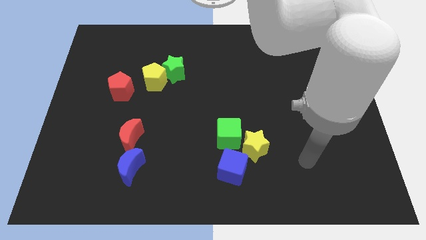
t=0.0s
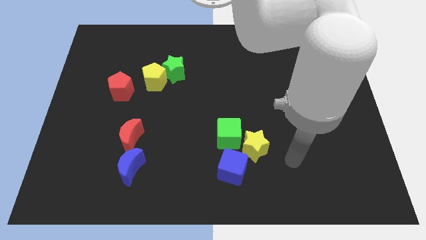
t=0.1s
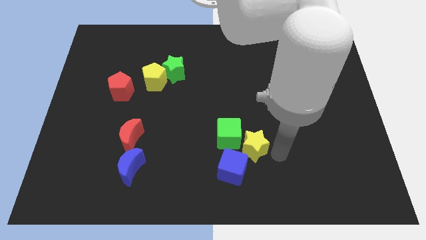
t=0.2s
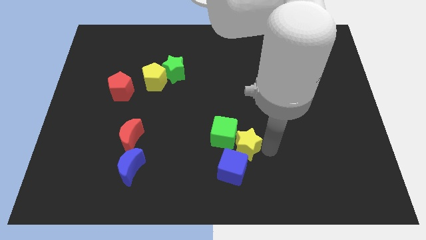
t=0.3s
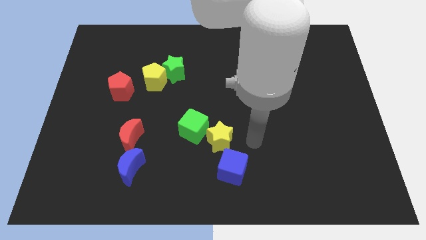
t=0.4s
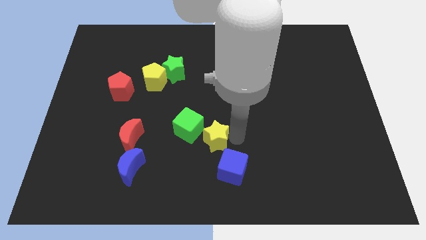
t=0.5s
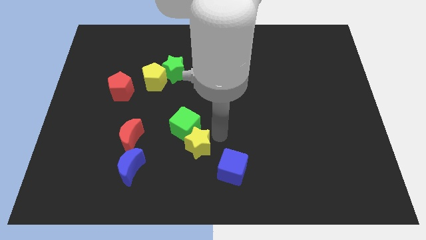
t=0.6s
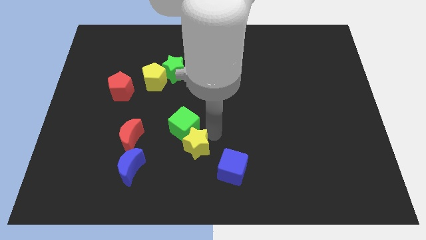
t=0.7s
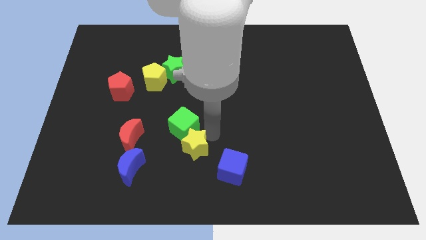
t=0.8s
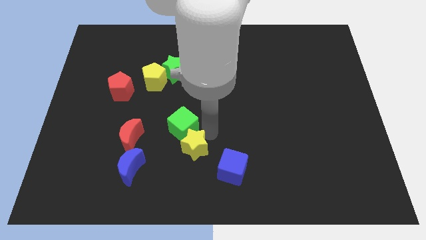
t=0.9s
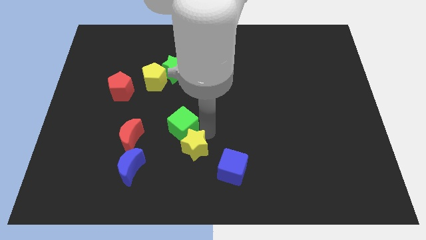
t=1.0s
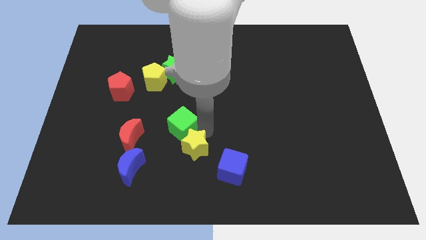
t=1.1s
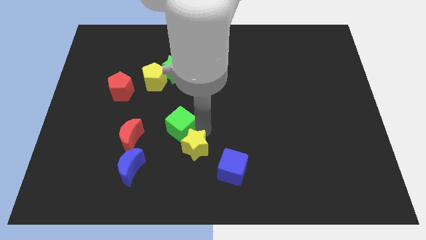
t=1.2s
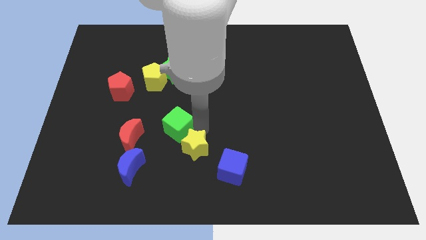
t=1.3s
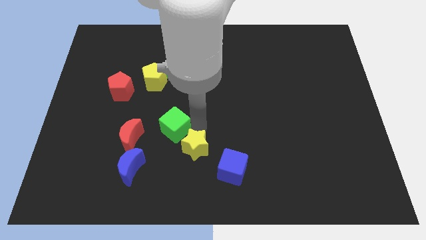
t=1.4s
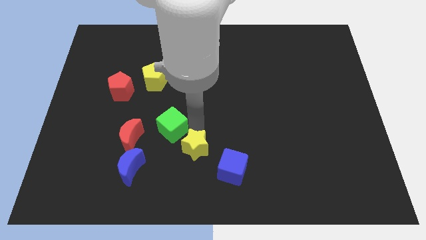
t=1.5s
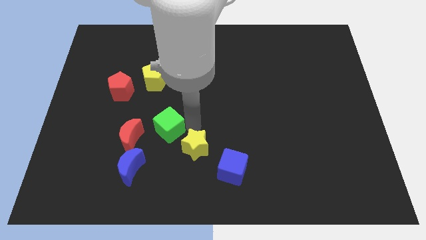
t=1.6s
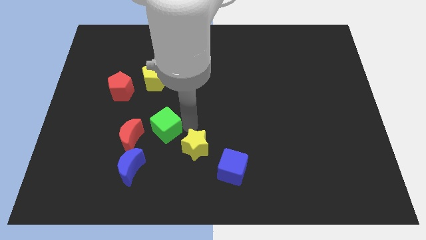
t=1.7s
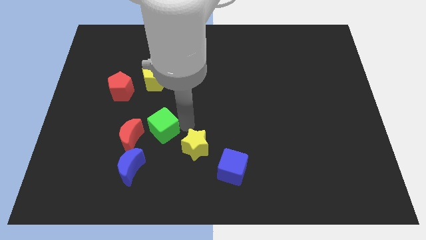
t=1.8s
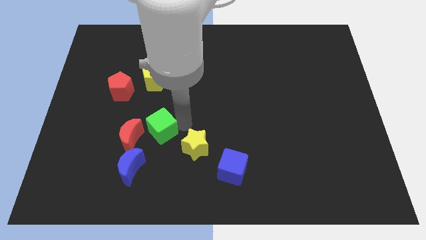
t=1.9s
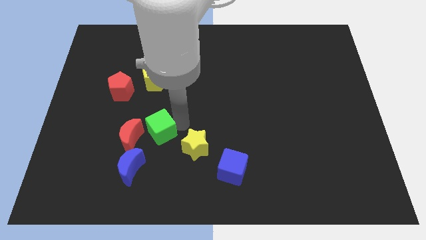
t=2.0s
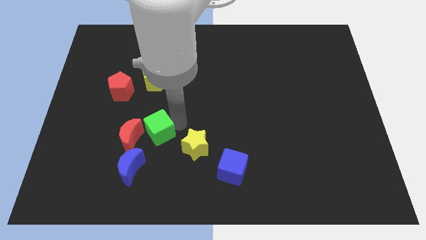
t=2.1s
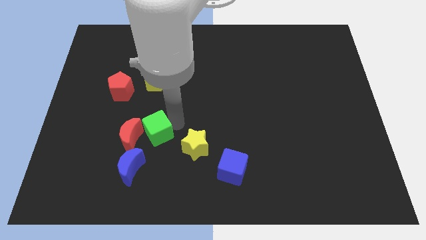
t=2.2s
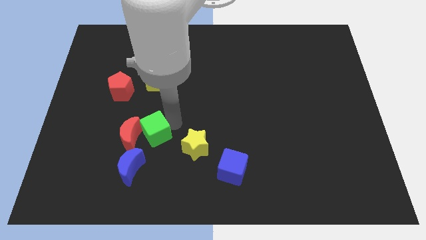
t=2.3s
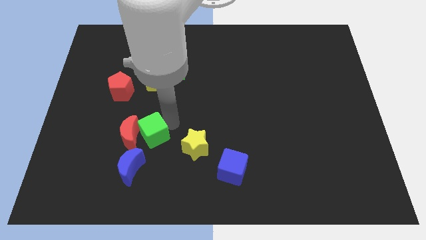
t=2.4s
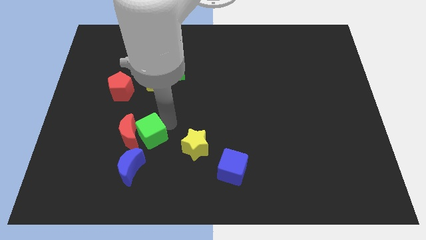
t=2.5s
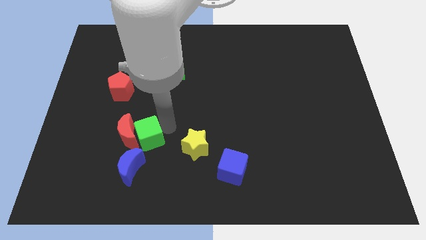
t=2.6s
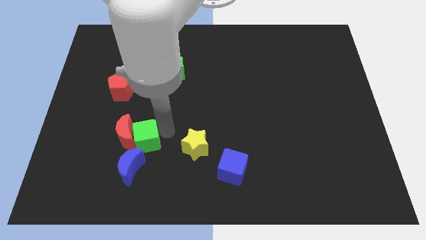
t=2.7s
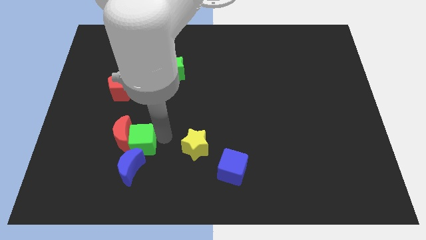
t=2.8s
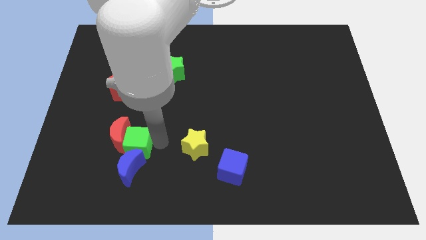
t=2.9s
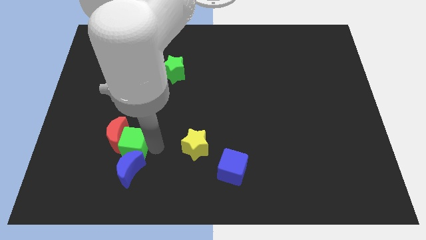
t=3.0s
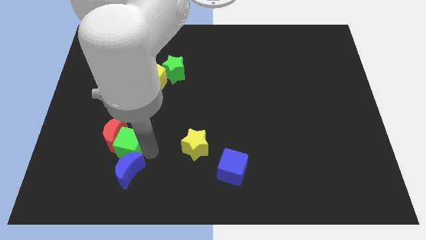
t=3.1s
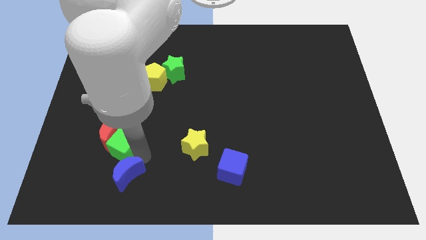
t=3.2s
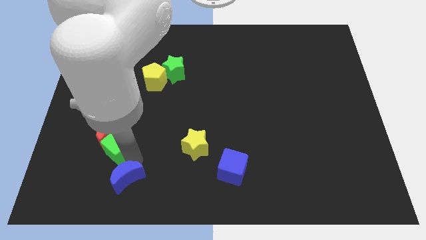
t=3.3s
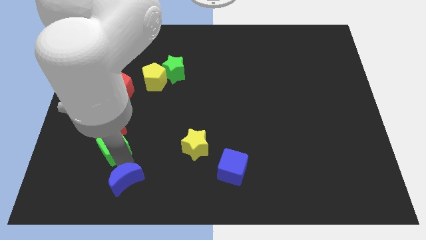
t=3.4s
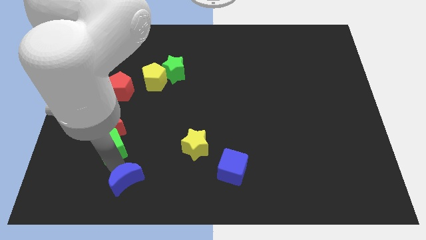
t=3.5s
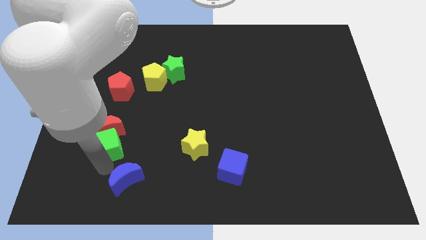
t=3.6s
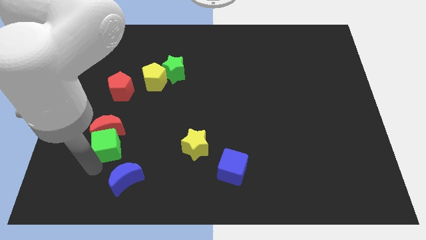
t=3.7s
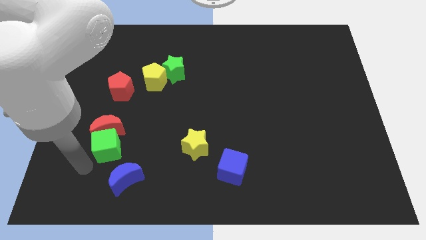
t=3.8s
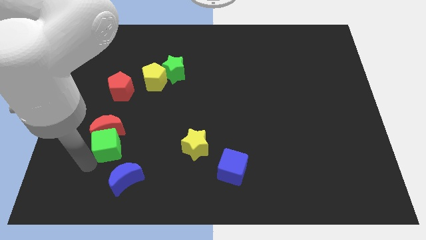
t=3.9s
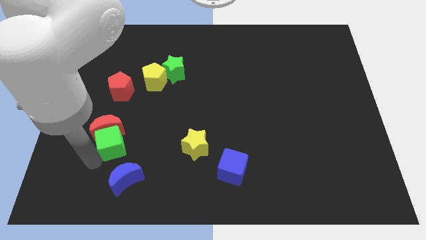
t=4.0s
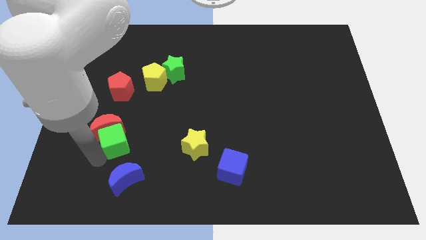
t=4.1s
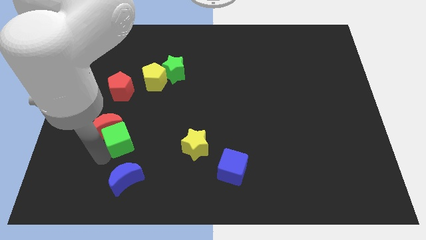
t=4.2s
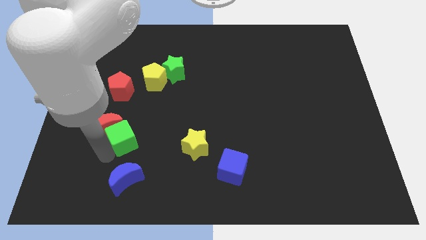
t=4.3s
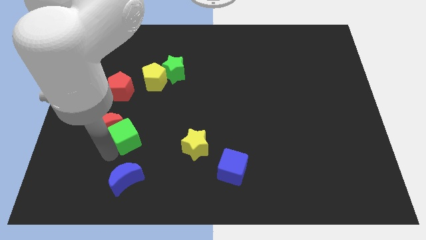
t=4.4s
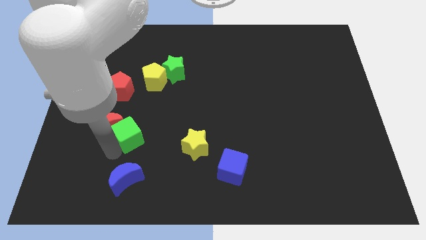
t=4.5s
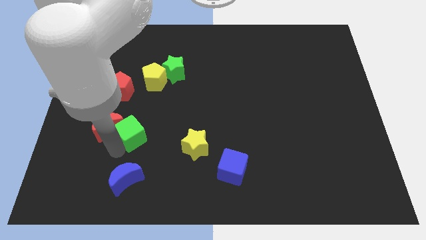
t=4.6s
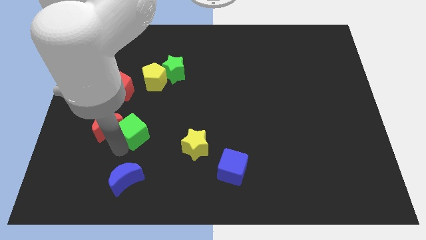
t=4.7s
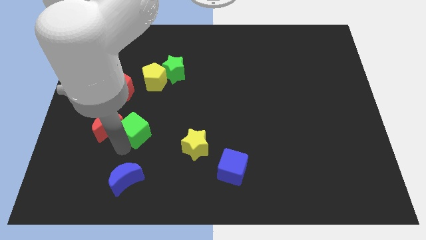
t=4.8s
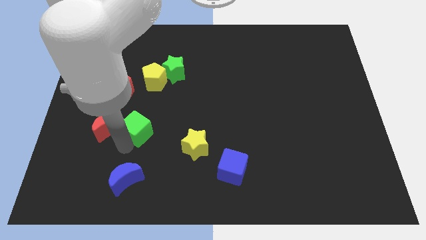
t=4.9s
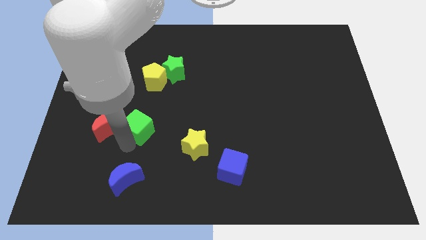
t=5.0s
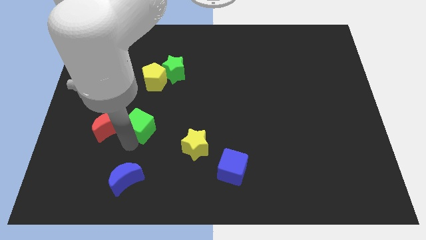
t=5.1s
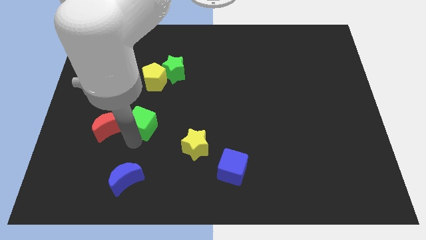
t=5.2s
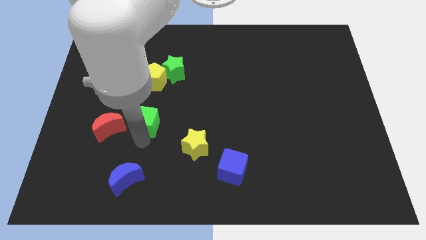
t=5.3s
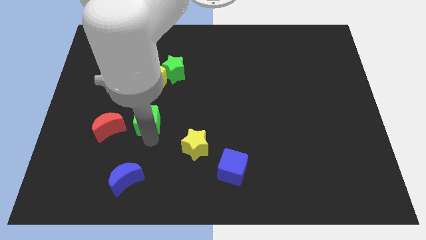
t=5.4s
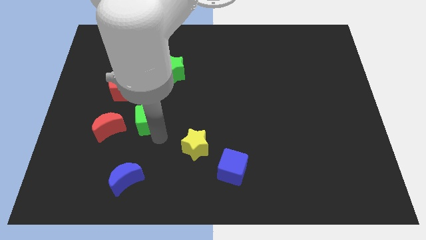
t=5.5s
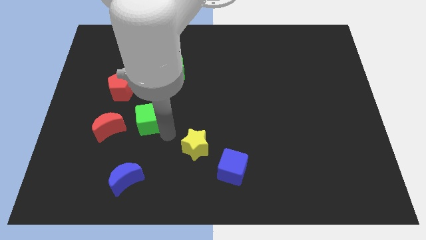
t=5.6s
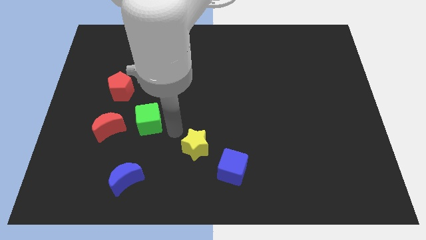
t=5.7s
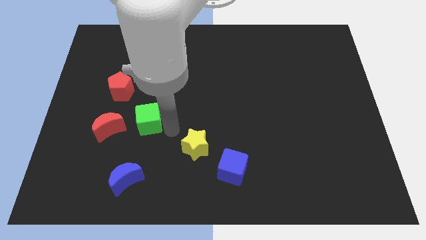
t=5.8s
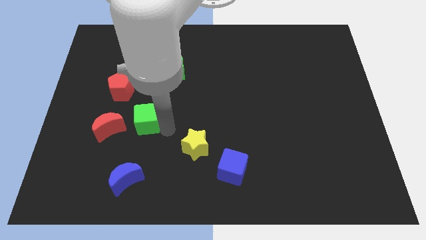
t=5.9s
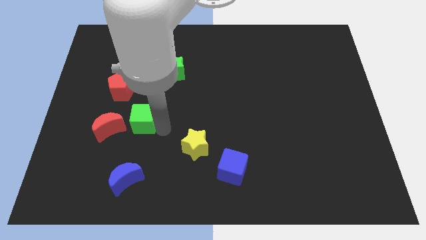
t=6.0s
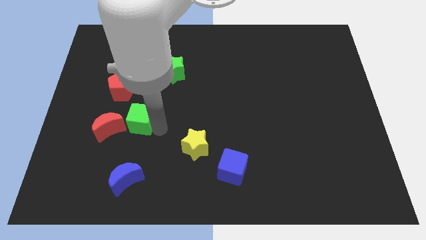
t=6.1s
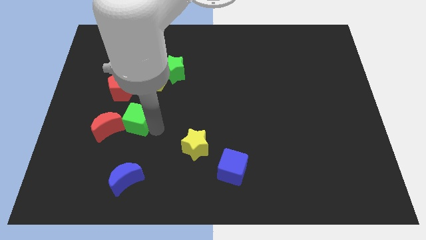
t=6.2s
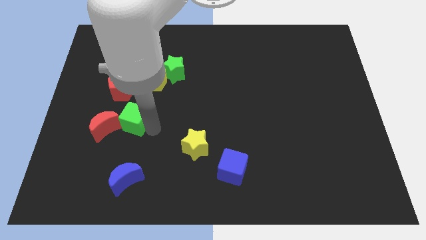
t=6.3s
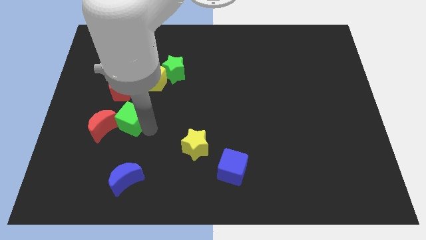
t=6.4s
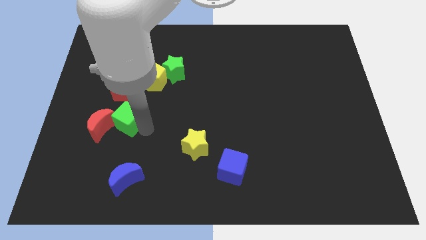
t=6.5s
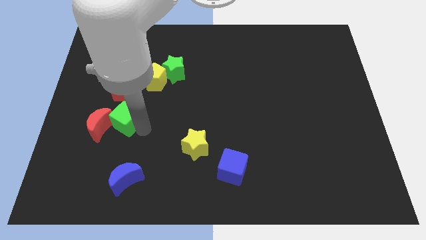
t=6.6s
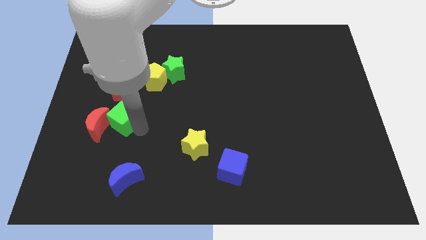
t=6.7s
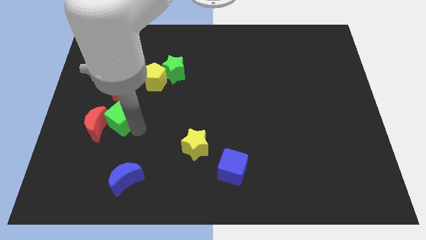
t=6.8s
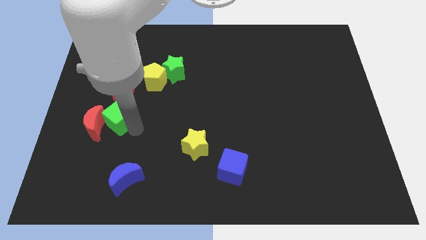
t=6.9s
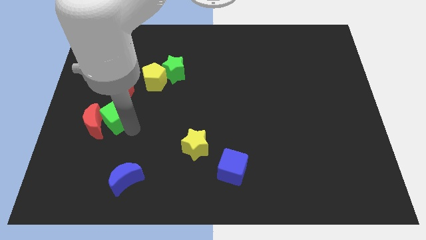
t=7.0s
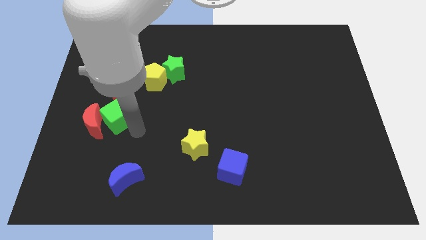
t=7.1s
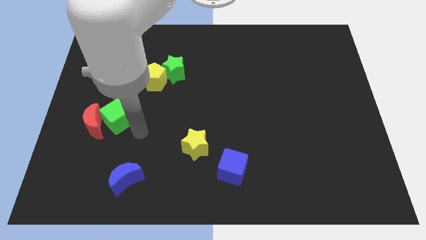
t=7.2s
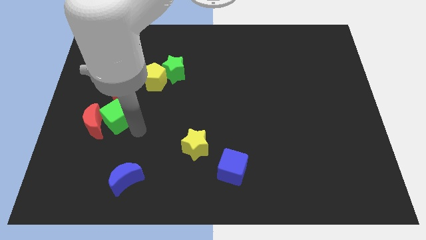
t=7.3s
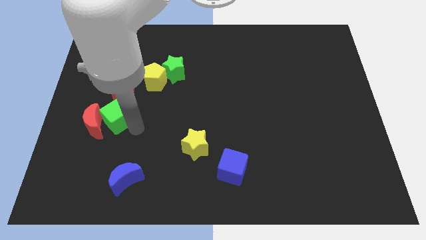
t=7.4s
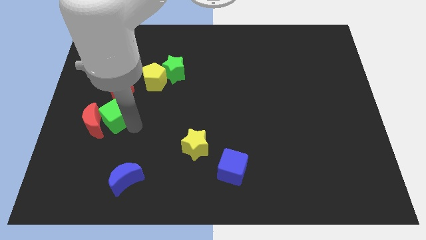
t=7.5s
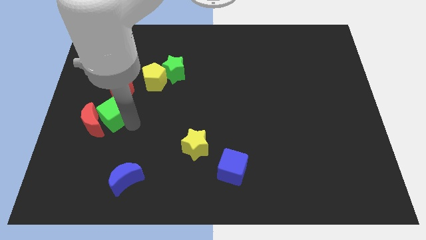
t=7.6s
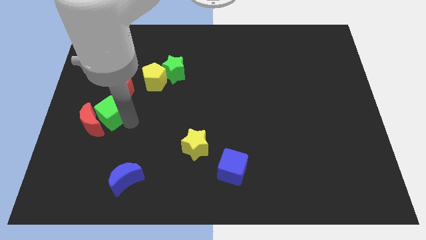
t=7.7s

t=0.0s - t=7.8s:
move the green cube diagonally down and to the left of the red pentagon

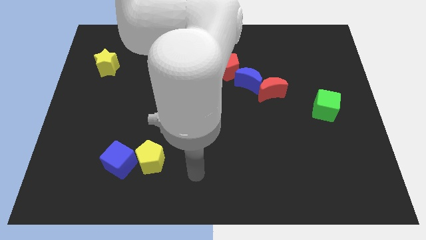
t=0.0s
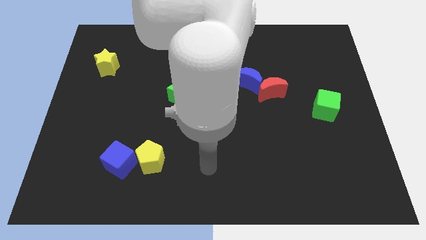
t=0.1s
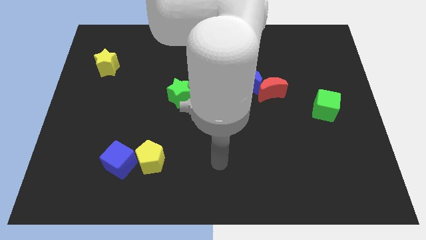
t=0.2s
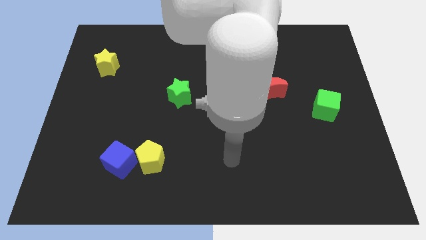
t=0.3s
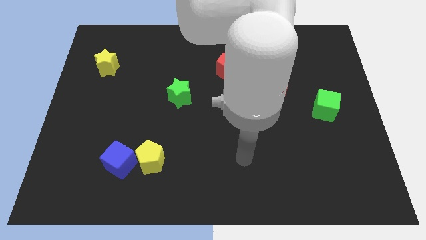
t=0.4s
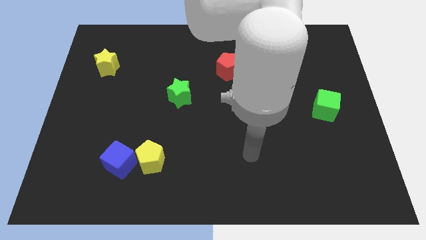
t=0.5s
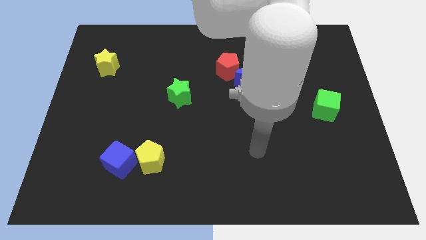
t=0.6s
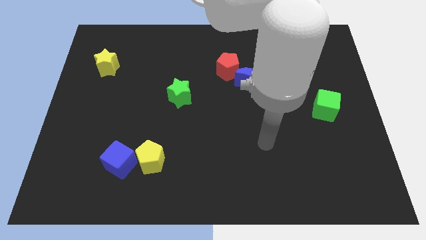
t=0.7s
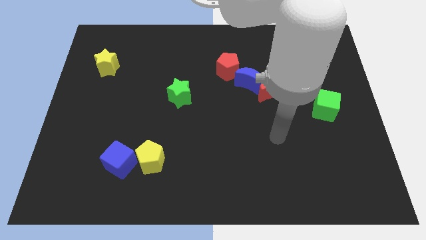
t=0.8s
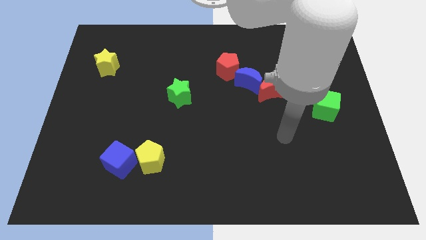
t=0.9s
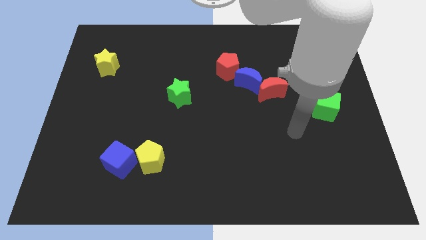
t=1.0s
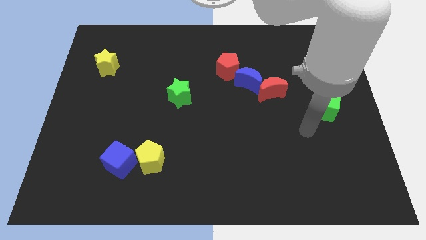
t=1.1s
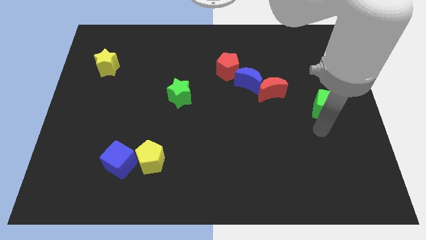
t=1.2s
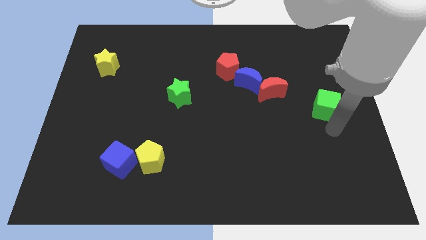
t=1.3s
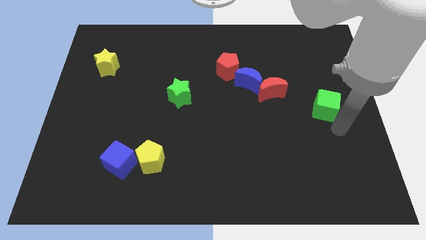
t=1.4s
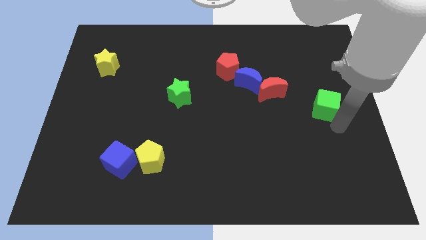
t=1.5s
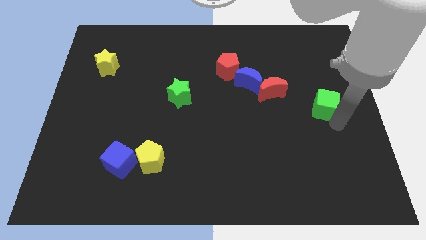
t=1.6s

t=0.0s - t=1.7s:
slide the green cube just right of the red moon
